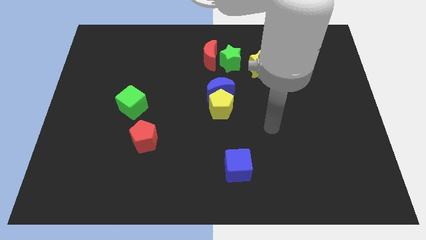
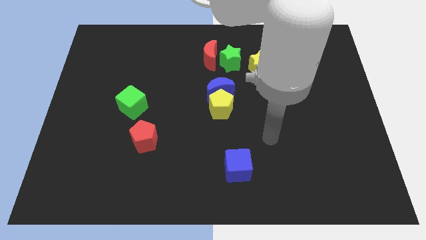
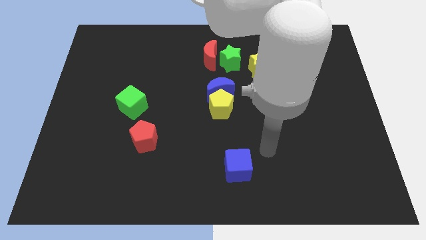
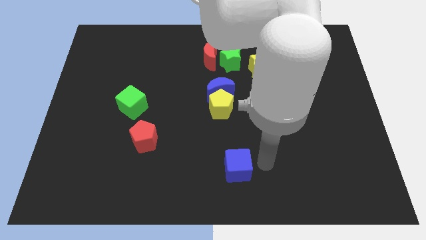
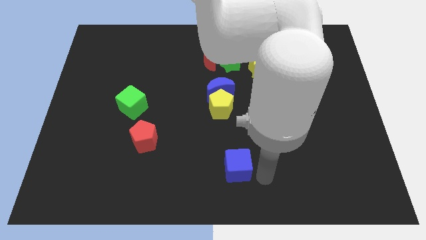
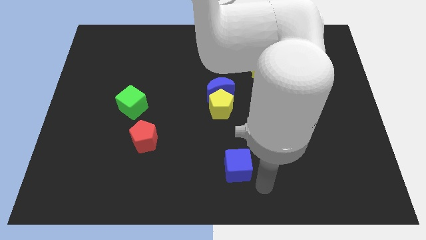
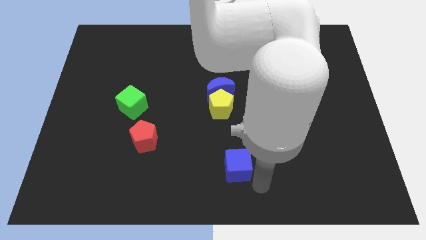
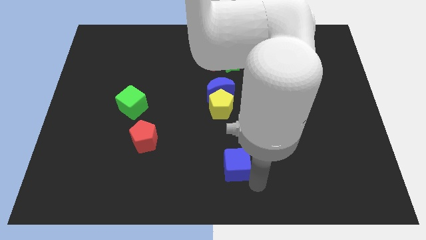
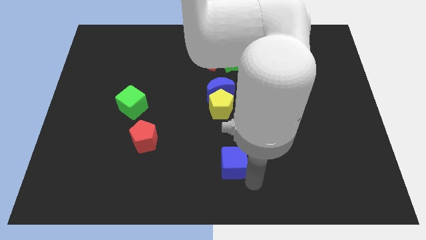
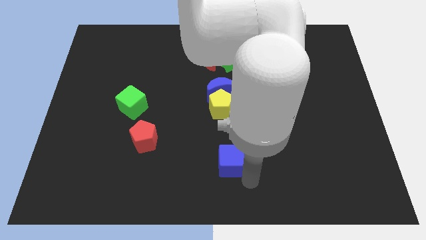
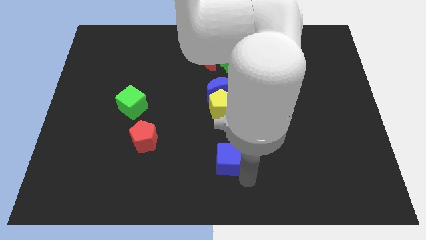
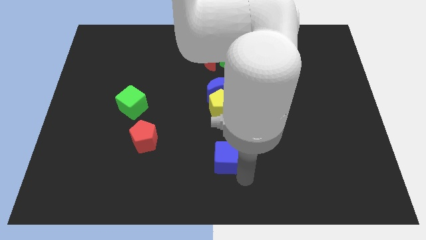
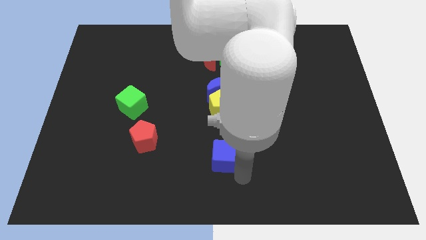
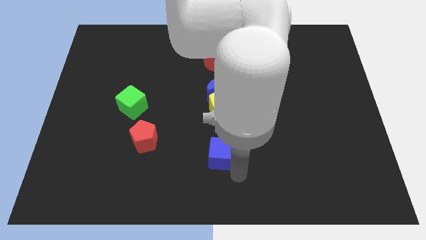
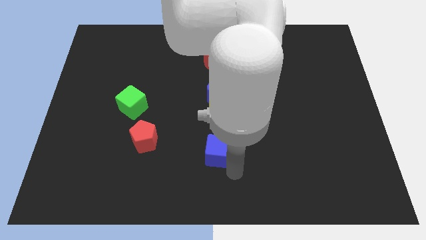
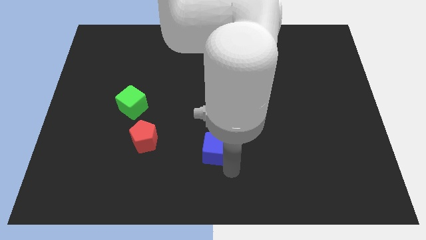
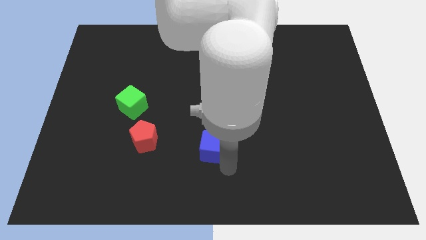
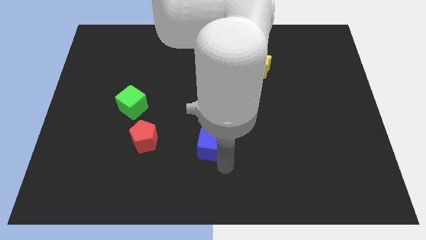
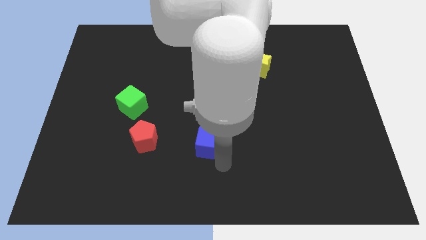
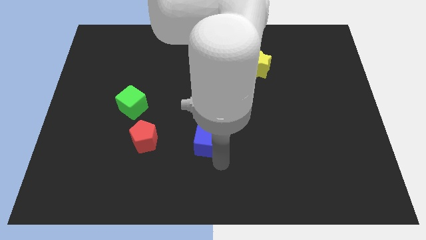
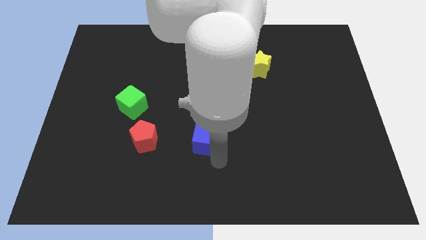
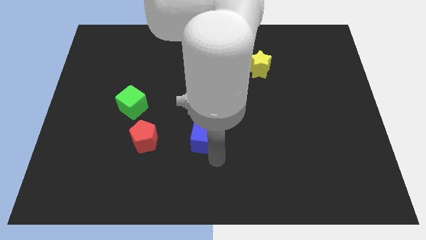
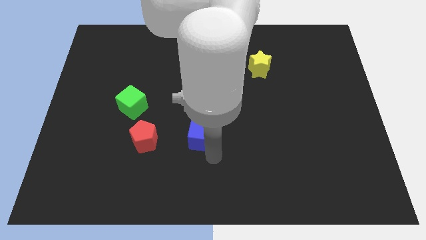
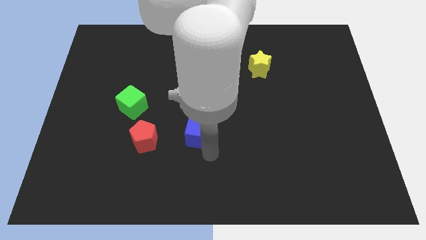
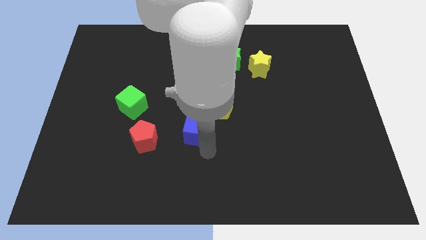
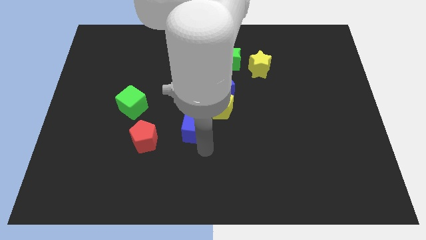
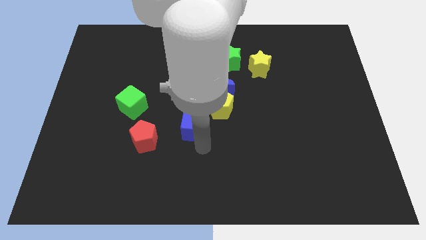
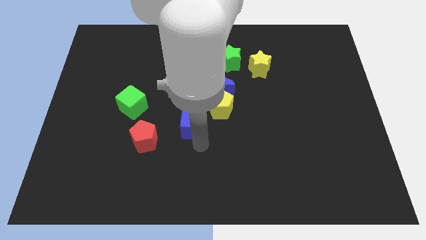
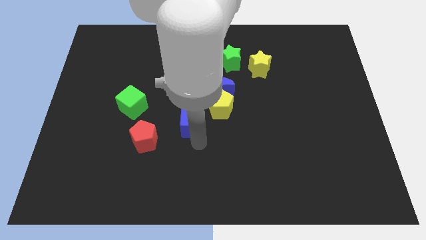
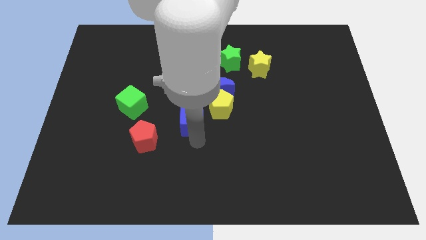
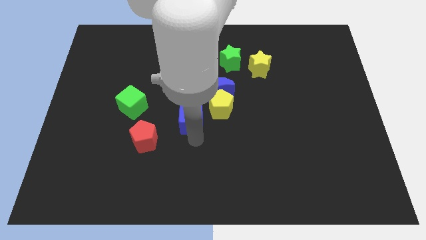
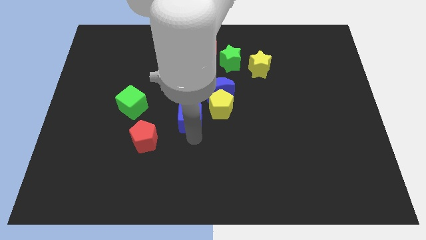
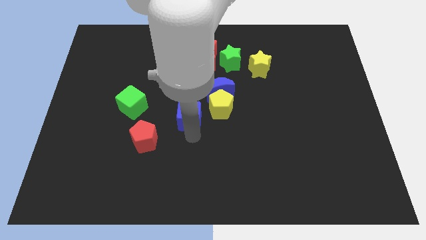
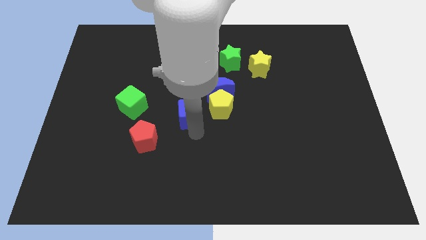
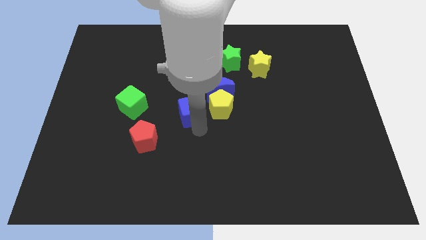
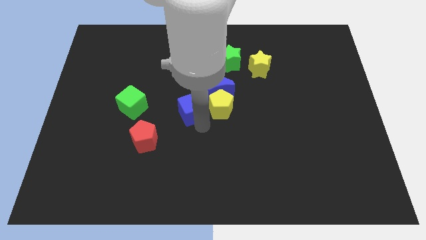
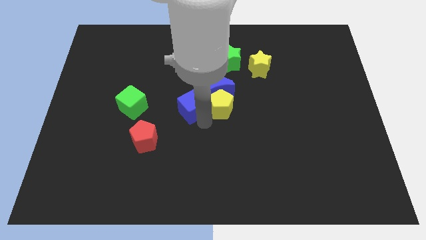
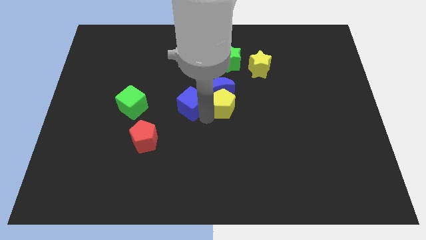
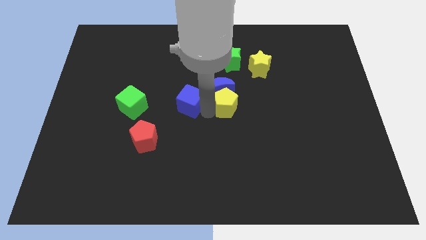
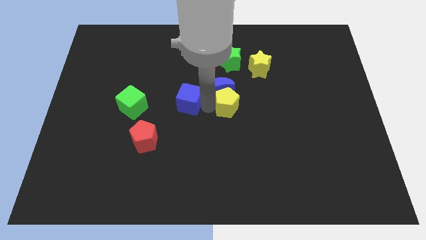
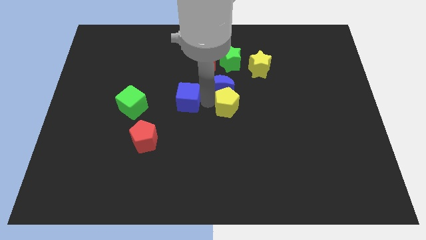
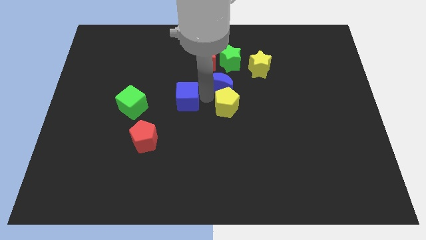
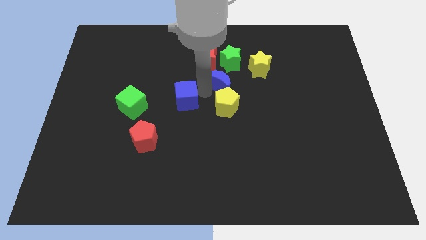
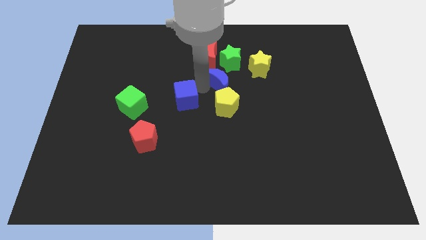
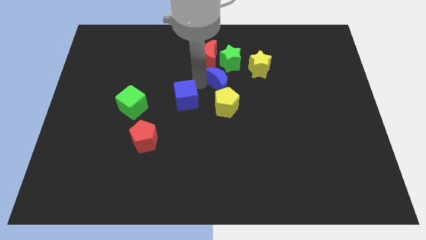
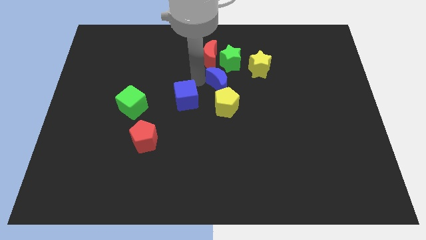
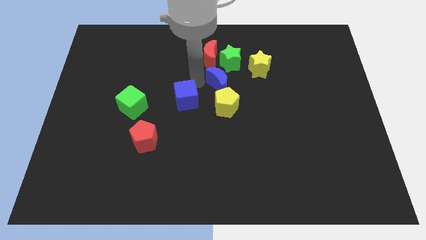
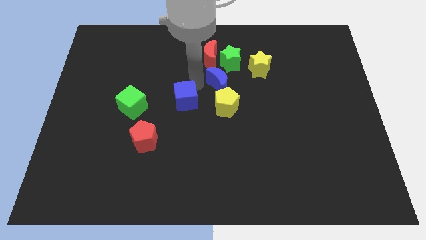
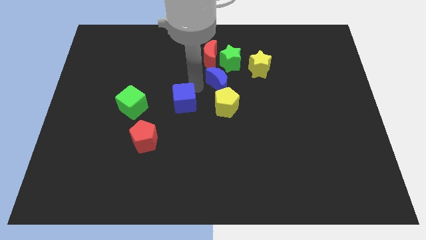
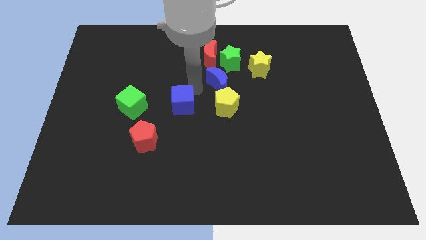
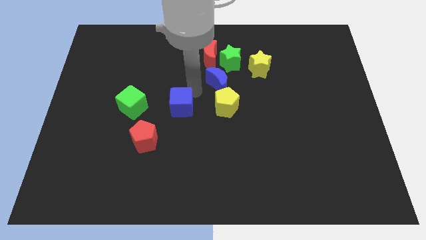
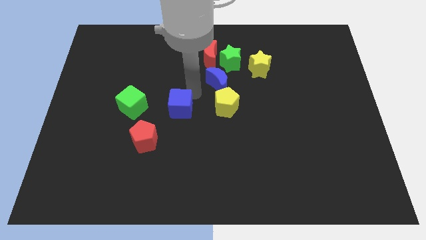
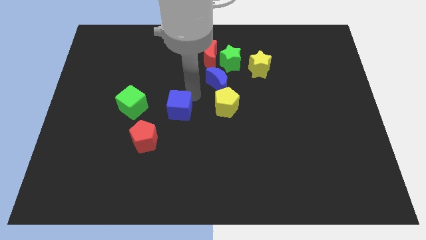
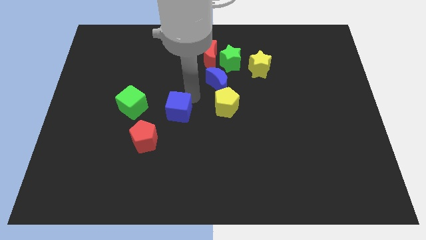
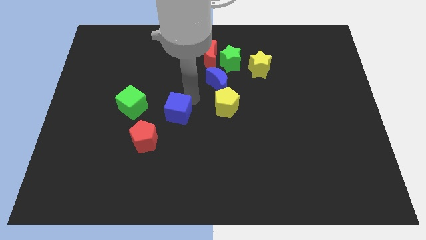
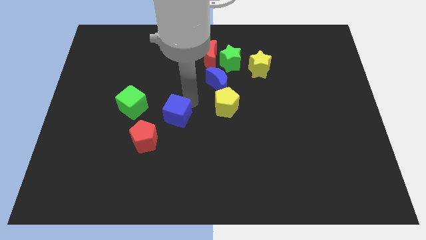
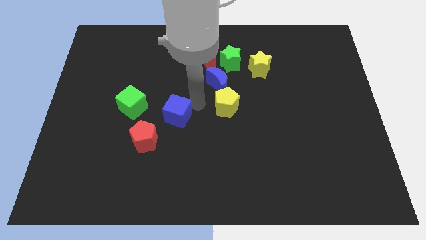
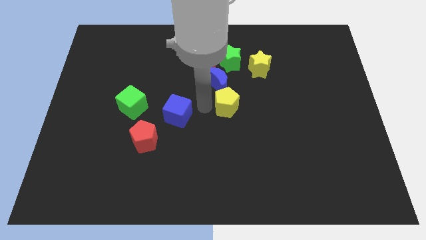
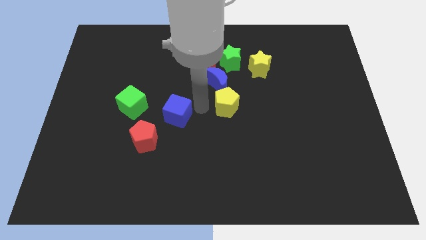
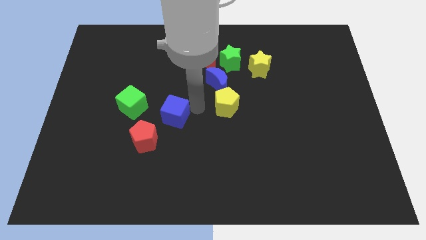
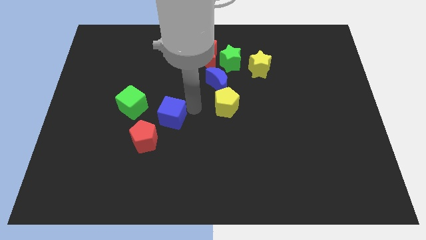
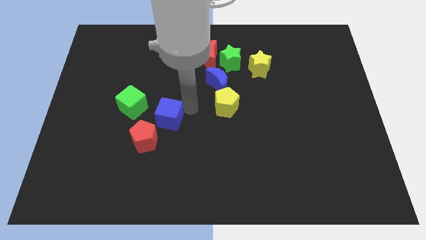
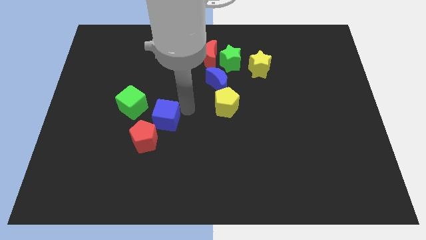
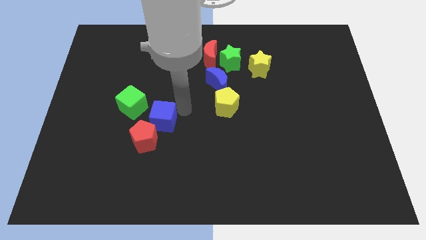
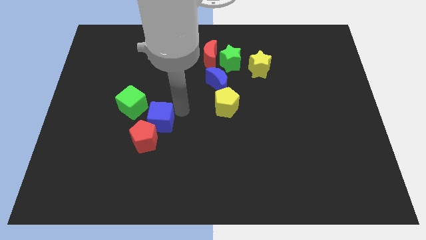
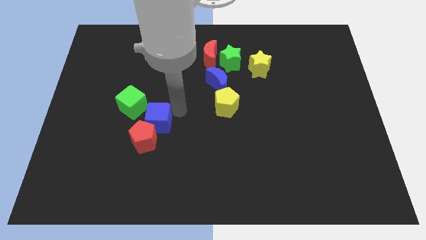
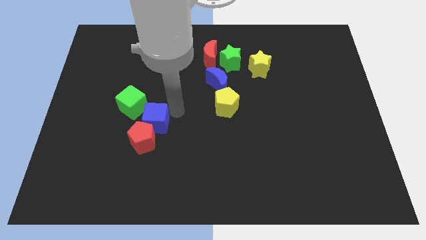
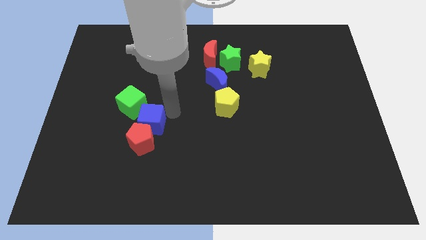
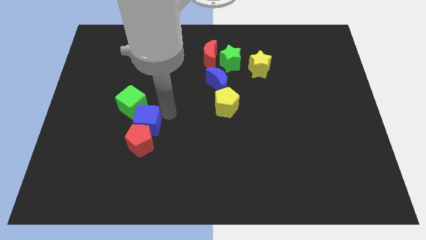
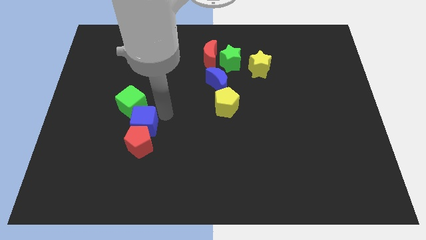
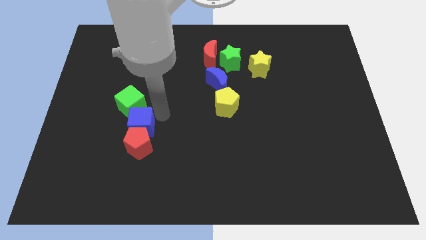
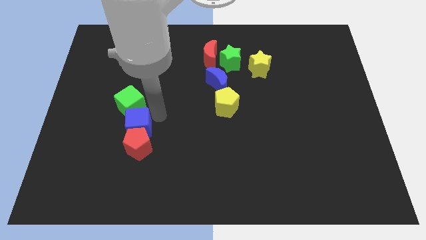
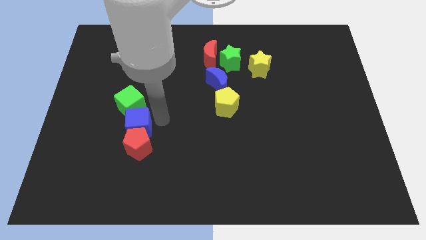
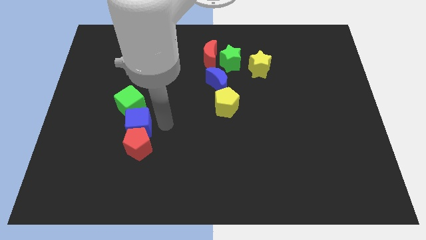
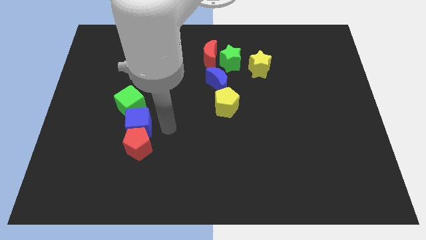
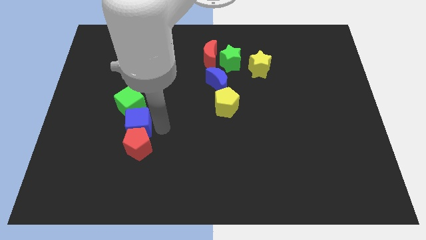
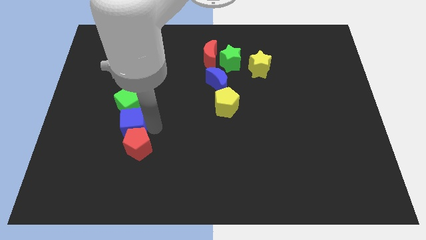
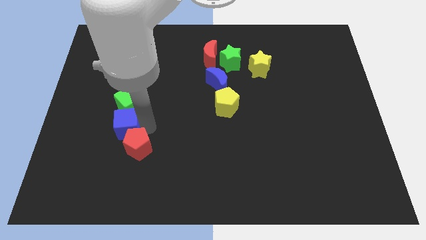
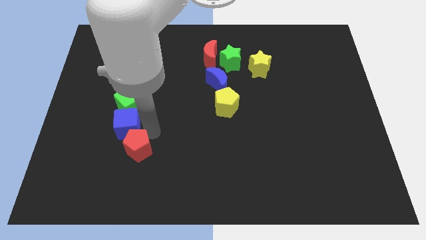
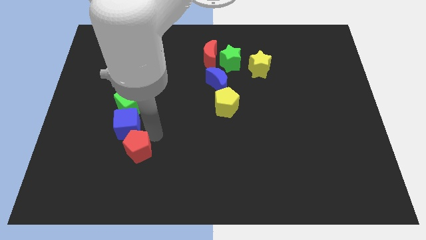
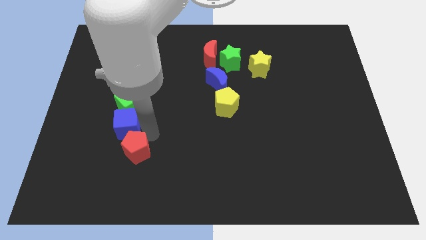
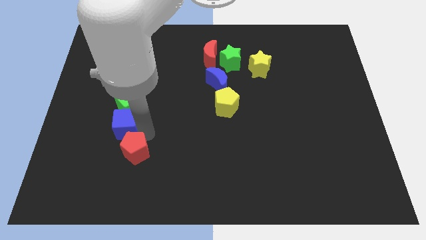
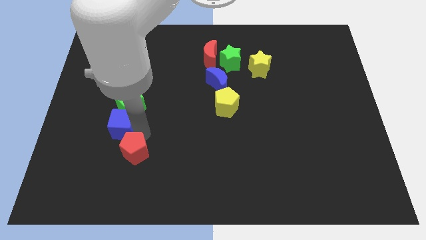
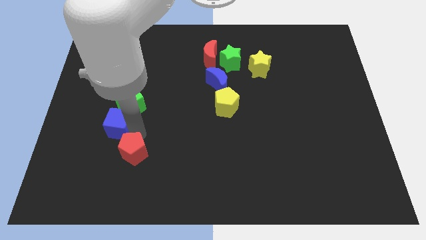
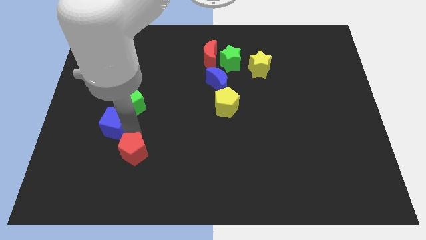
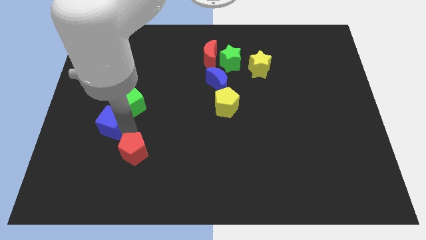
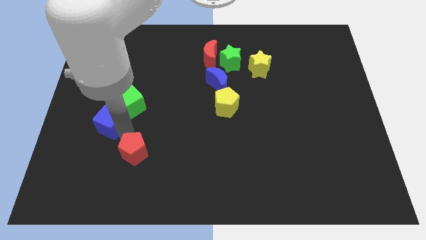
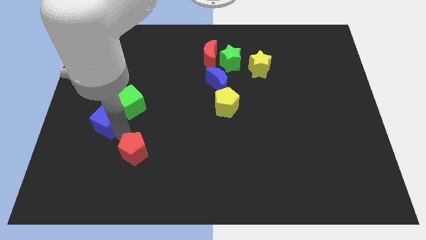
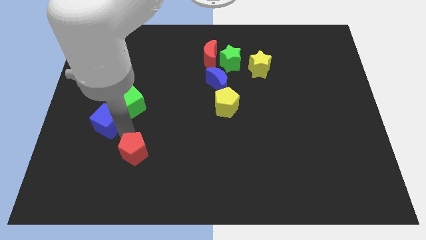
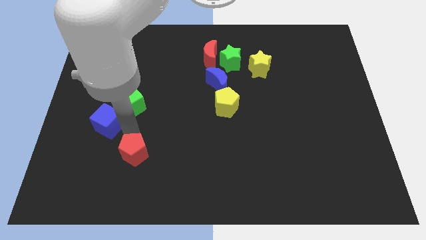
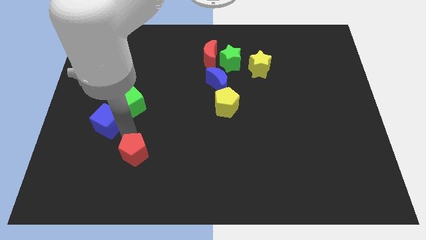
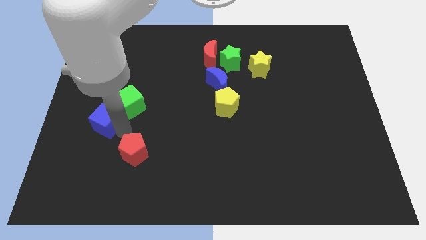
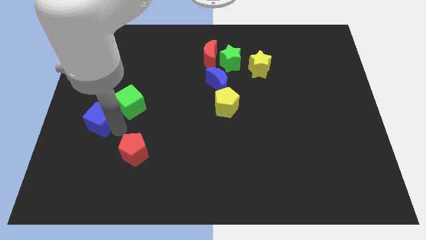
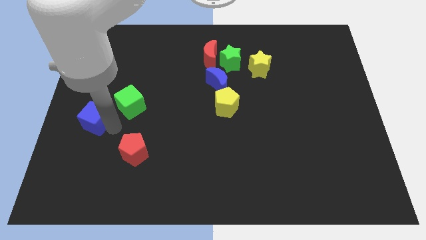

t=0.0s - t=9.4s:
put the blue cube to the left side of the board
